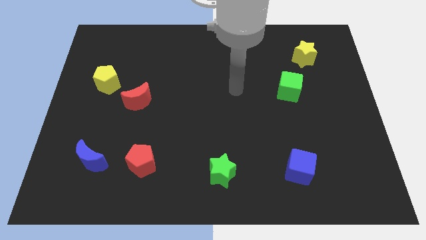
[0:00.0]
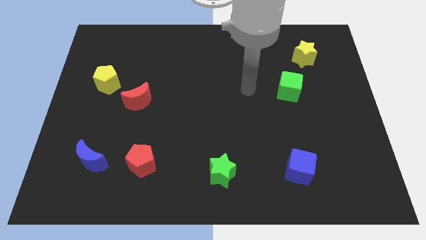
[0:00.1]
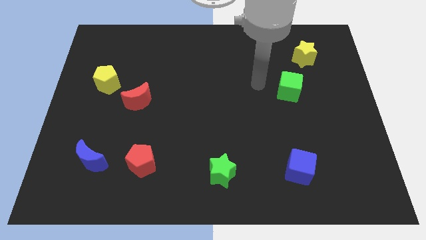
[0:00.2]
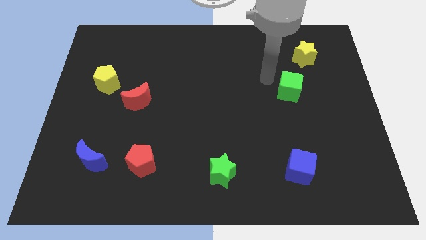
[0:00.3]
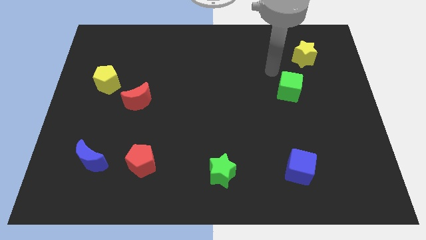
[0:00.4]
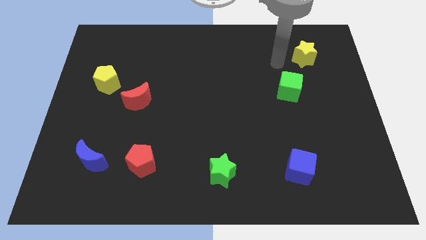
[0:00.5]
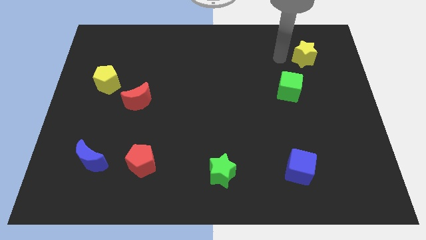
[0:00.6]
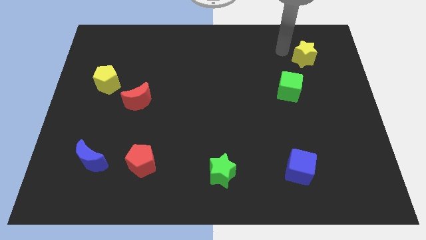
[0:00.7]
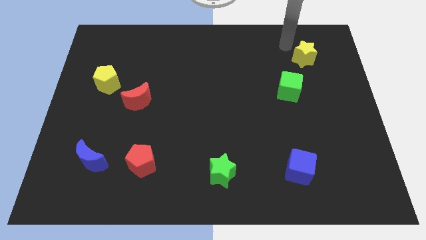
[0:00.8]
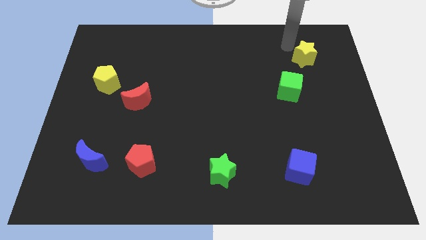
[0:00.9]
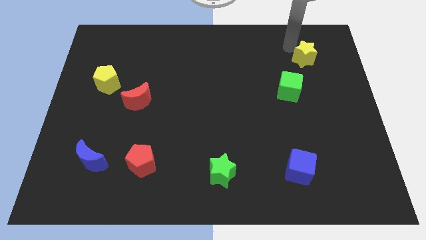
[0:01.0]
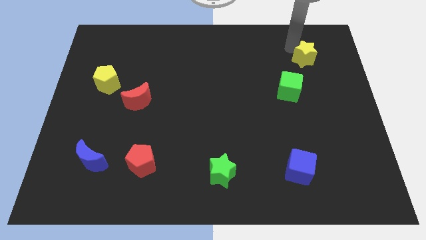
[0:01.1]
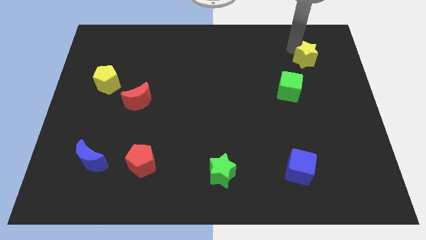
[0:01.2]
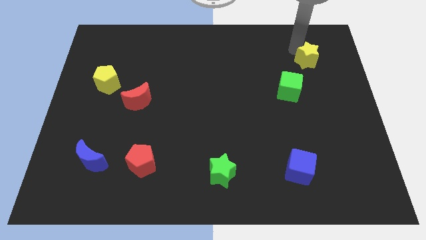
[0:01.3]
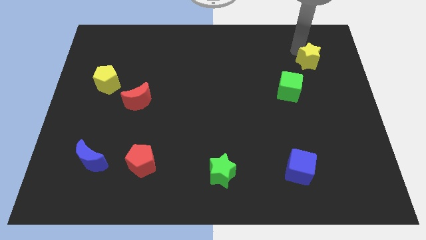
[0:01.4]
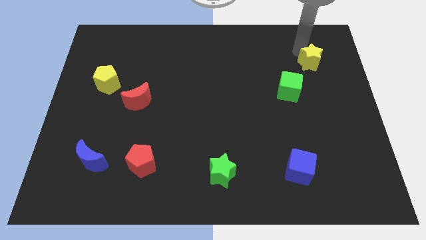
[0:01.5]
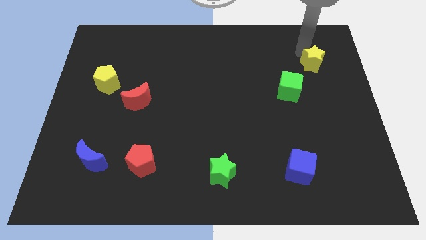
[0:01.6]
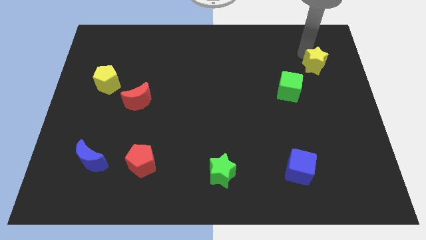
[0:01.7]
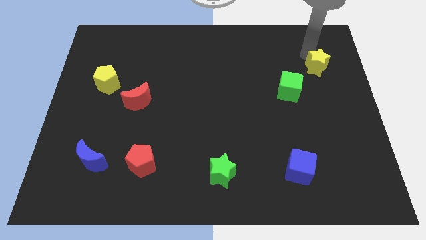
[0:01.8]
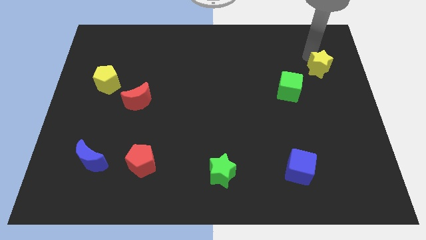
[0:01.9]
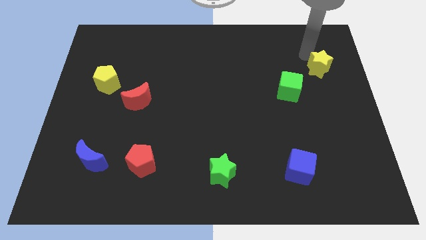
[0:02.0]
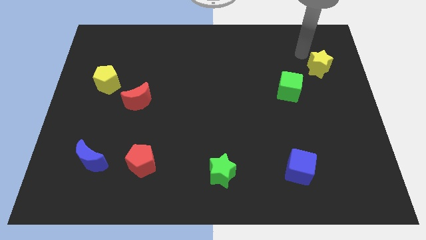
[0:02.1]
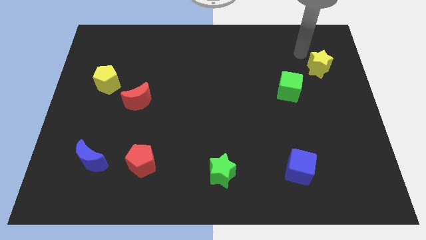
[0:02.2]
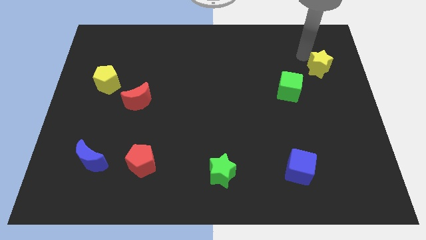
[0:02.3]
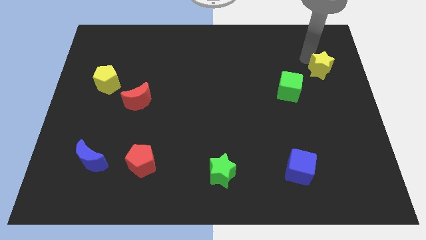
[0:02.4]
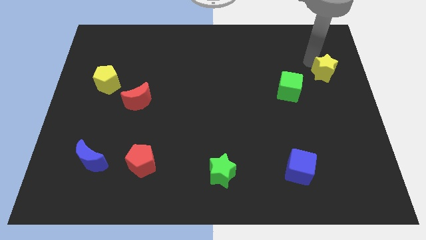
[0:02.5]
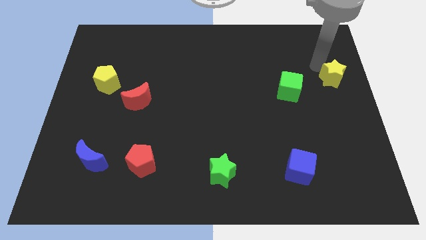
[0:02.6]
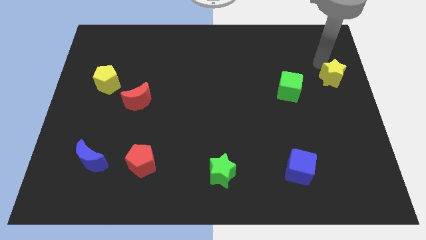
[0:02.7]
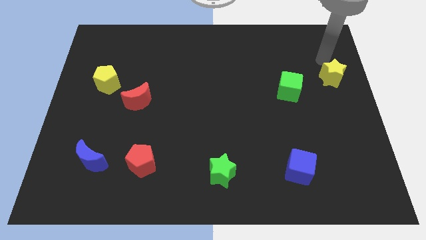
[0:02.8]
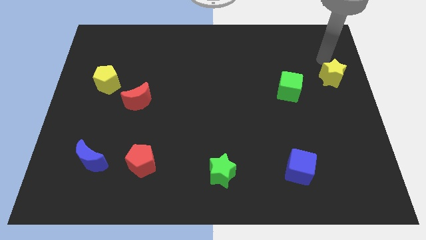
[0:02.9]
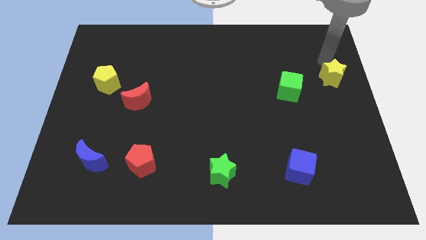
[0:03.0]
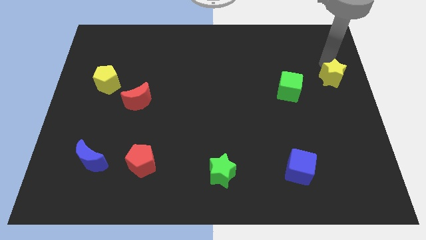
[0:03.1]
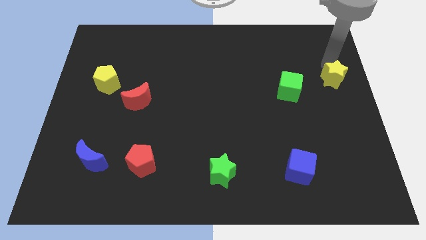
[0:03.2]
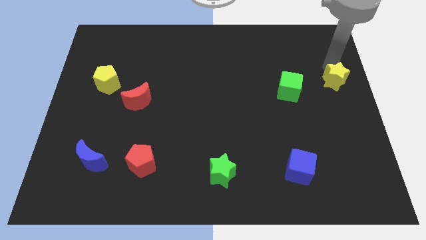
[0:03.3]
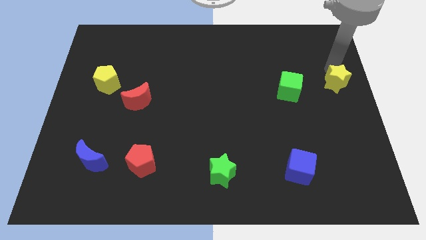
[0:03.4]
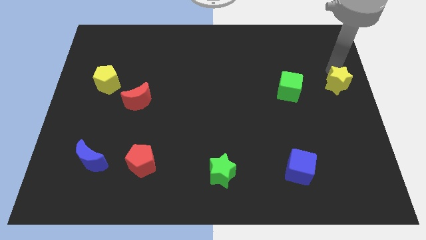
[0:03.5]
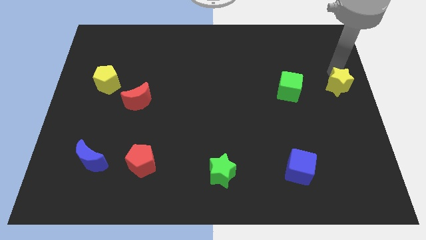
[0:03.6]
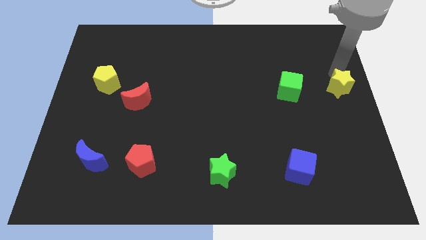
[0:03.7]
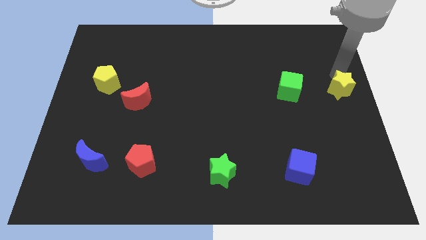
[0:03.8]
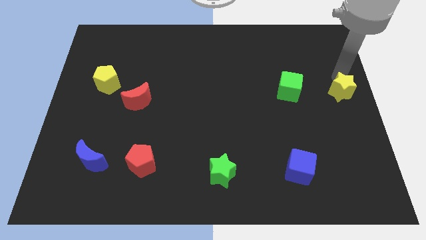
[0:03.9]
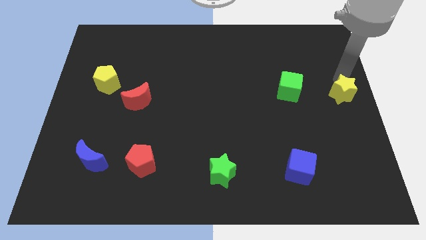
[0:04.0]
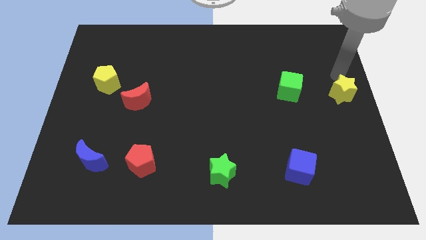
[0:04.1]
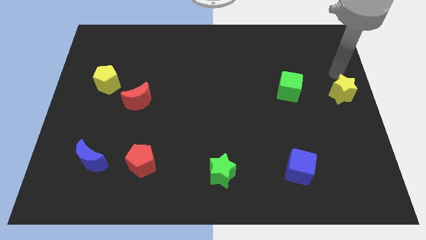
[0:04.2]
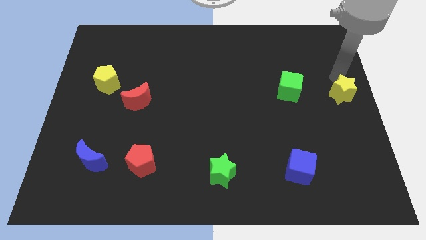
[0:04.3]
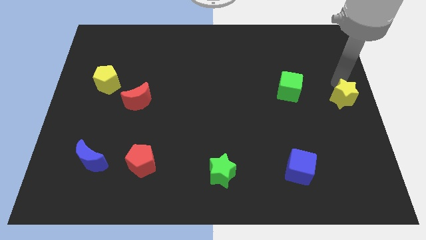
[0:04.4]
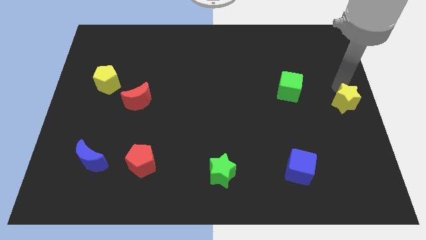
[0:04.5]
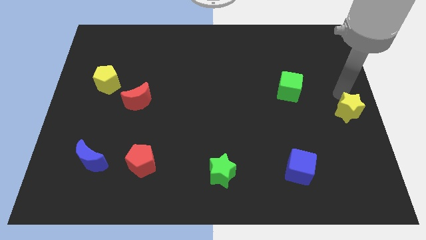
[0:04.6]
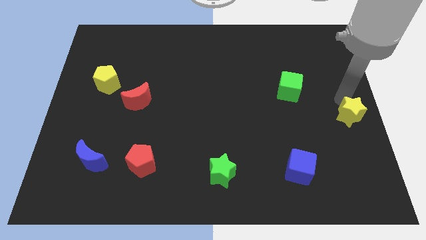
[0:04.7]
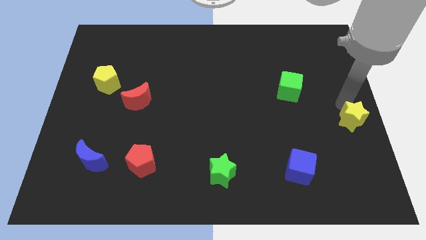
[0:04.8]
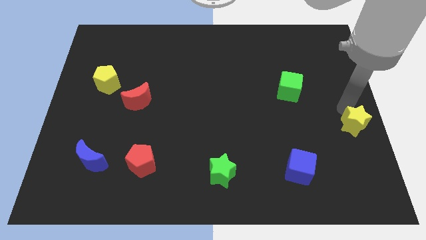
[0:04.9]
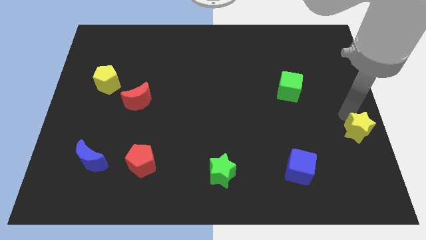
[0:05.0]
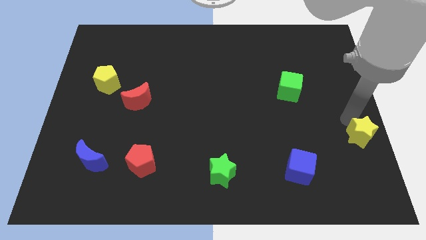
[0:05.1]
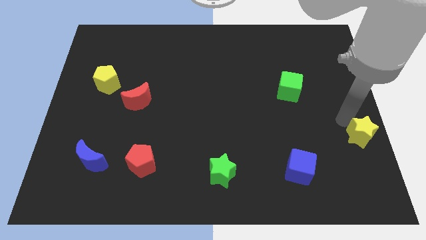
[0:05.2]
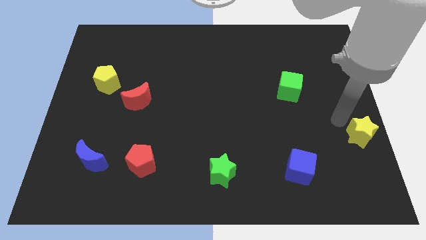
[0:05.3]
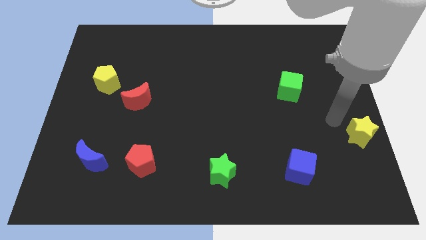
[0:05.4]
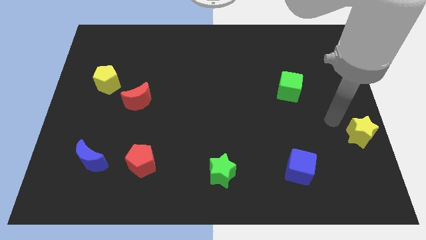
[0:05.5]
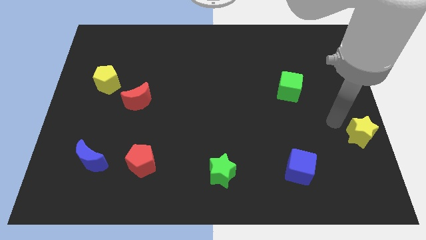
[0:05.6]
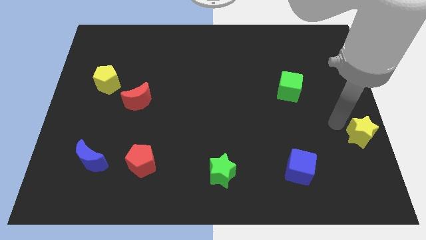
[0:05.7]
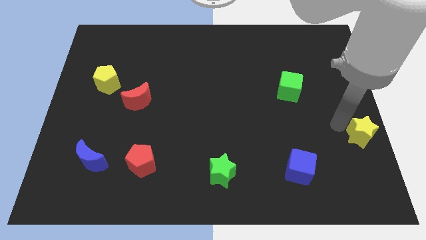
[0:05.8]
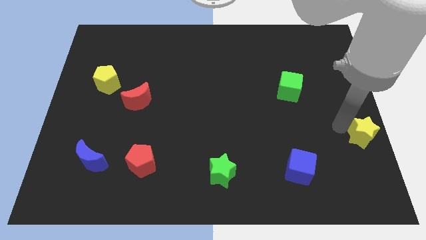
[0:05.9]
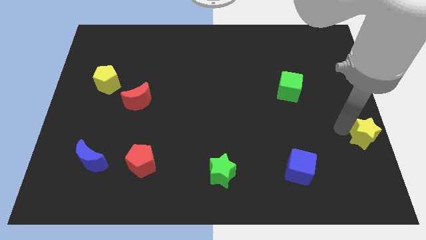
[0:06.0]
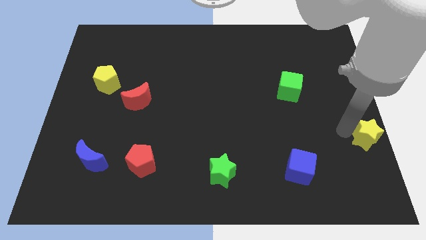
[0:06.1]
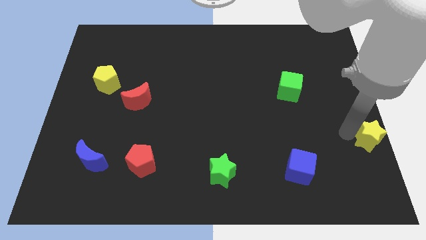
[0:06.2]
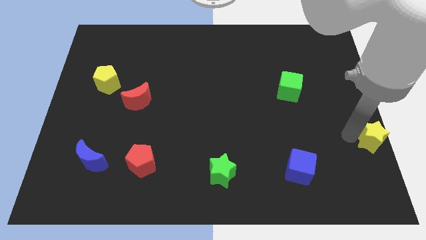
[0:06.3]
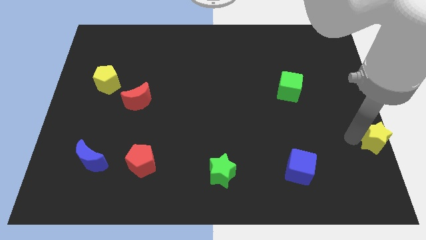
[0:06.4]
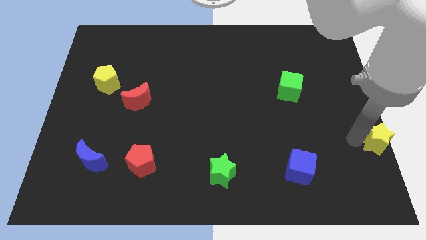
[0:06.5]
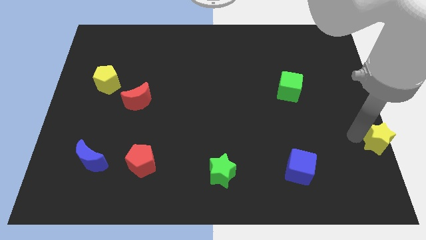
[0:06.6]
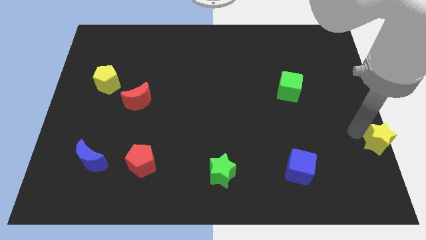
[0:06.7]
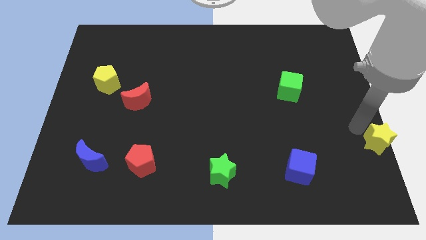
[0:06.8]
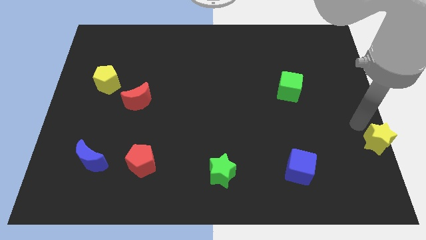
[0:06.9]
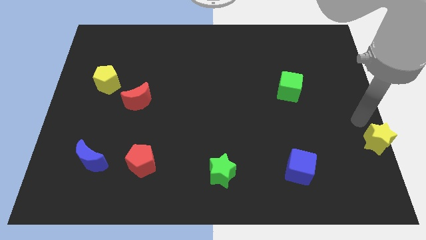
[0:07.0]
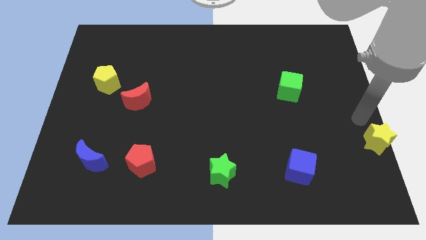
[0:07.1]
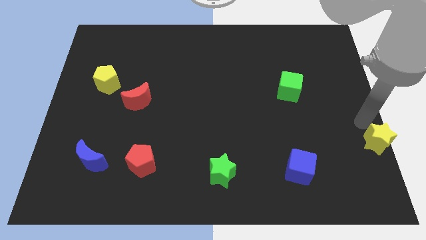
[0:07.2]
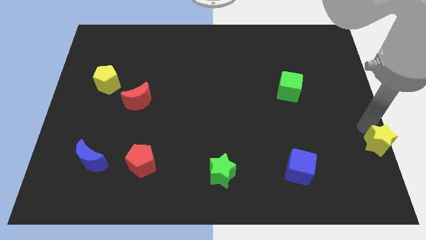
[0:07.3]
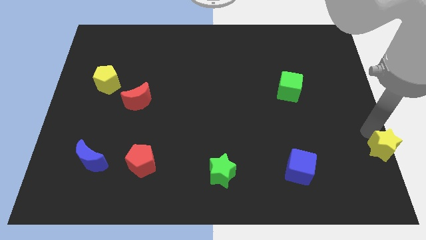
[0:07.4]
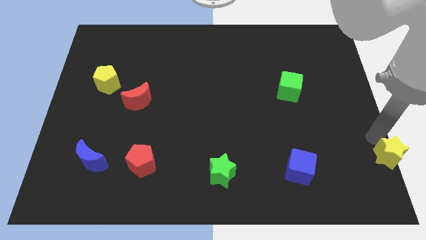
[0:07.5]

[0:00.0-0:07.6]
put the yellow star to the bottom right corner
